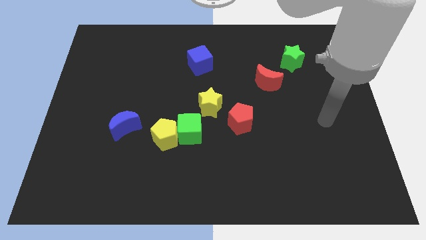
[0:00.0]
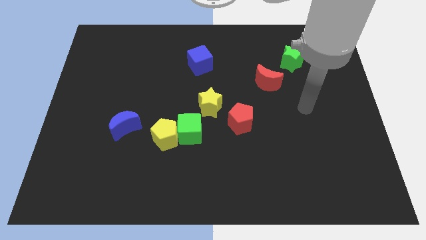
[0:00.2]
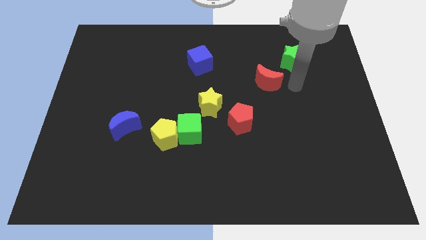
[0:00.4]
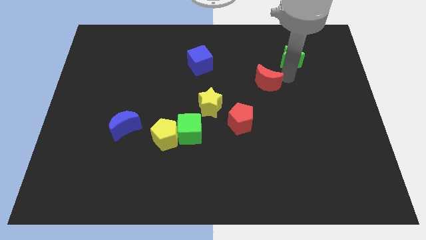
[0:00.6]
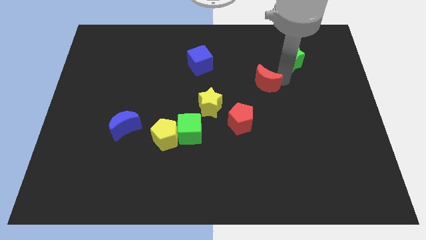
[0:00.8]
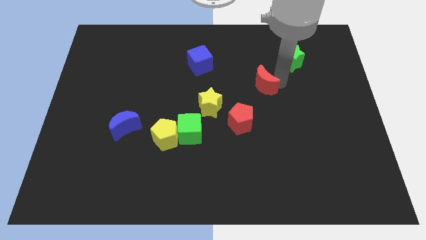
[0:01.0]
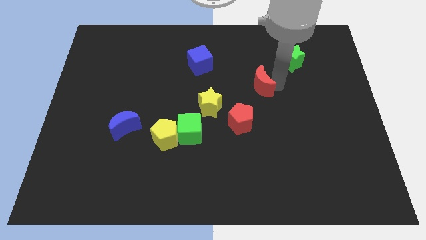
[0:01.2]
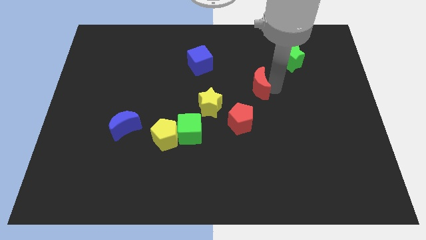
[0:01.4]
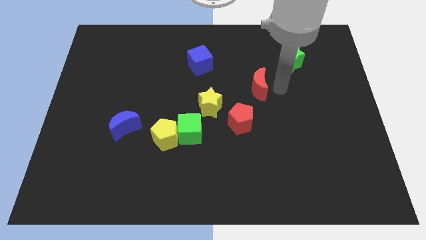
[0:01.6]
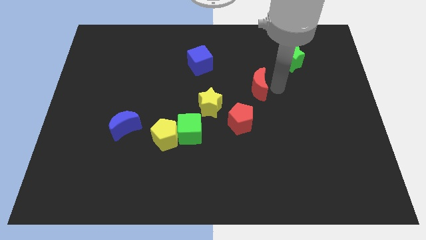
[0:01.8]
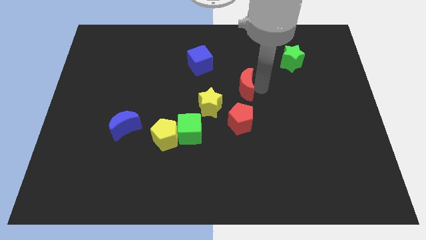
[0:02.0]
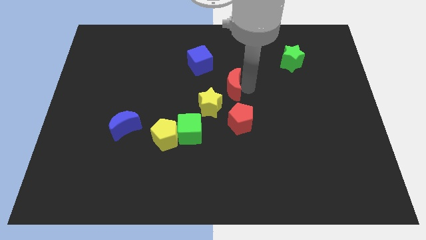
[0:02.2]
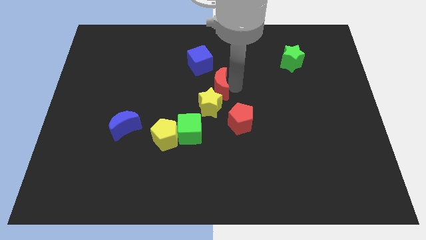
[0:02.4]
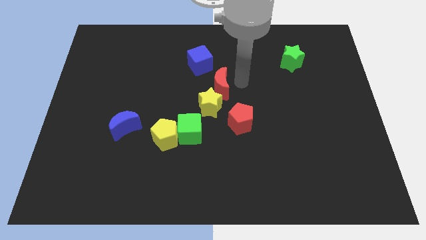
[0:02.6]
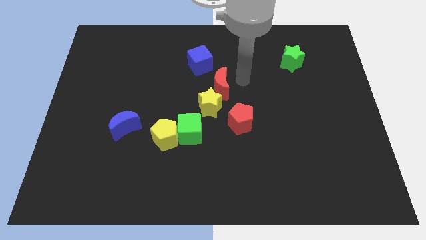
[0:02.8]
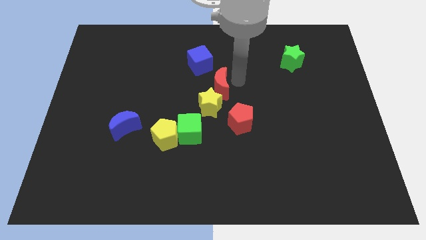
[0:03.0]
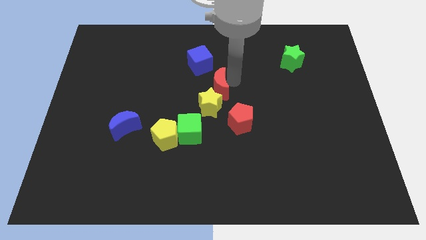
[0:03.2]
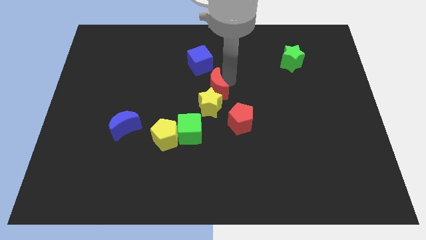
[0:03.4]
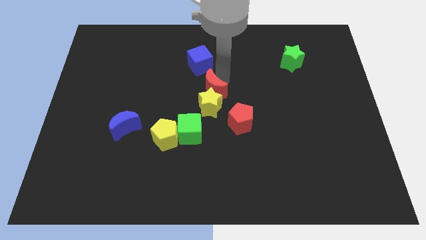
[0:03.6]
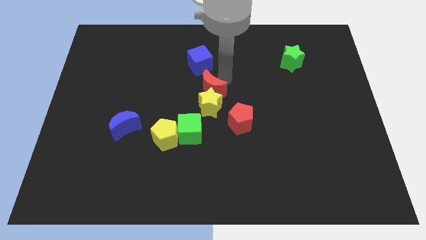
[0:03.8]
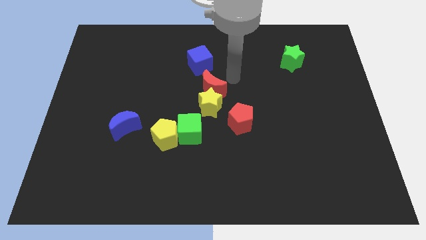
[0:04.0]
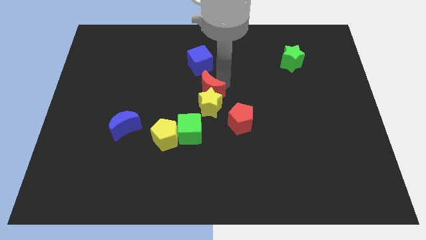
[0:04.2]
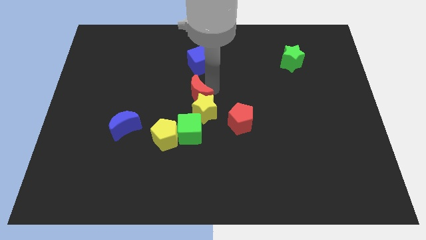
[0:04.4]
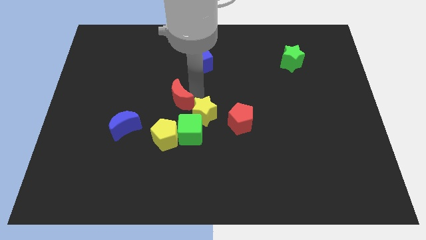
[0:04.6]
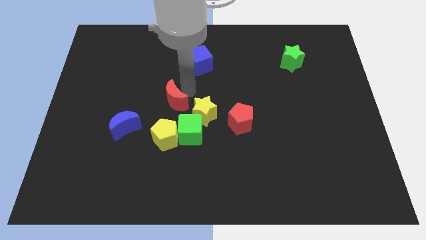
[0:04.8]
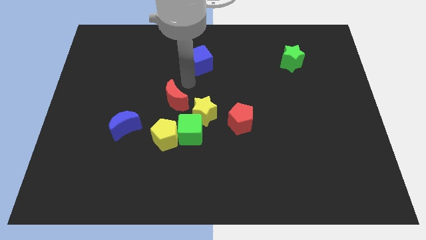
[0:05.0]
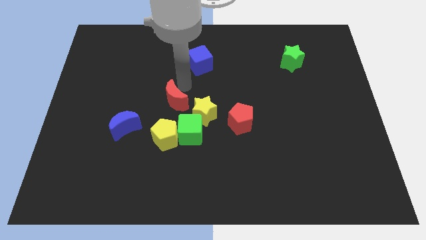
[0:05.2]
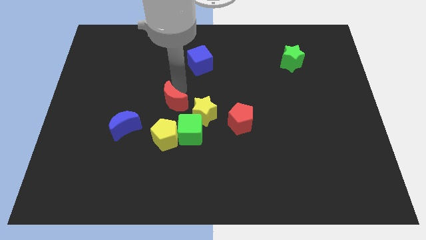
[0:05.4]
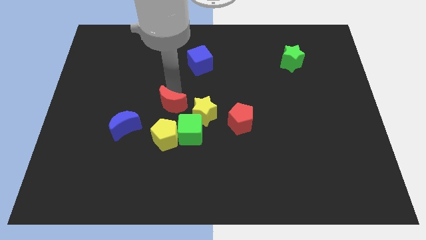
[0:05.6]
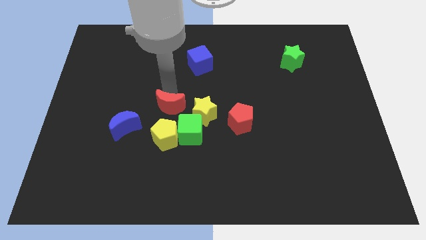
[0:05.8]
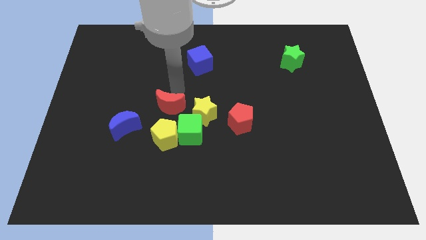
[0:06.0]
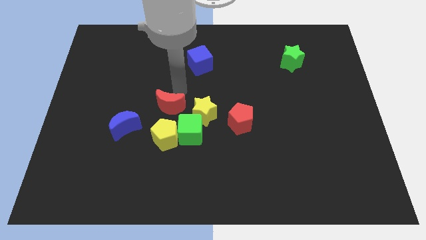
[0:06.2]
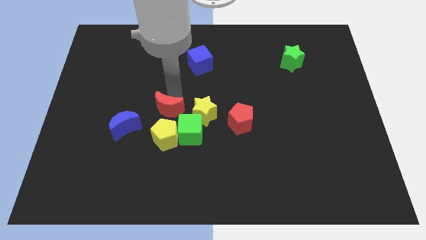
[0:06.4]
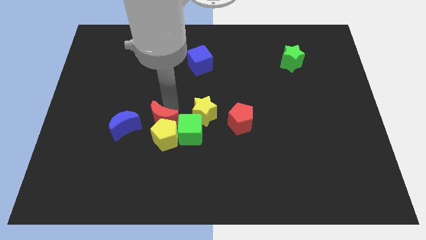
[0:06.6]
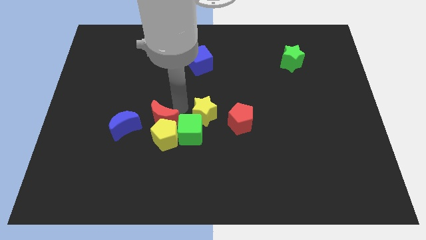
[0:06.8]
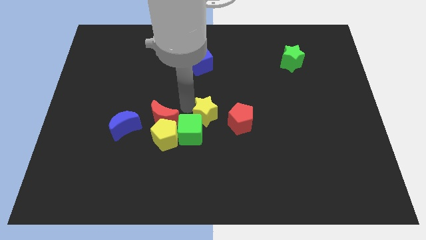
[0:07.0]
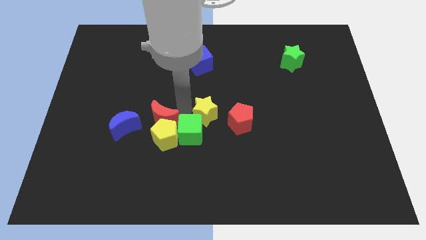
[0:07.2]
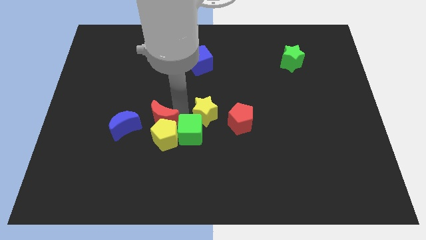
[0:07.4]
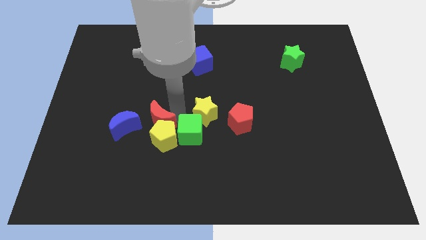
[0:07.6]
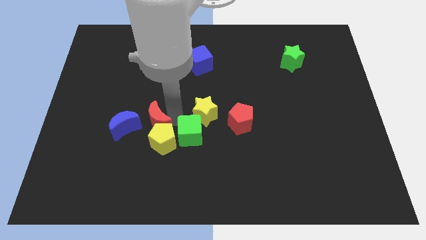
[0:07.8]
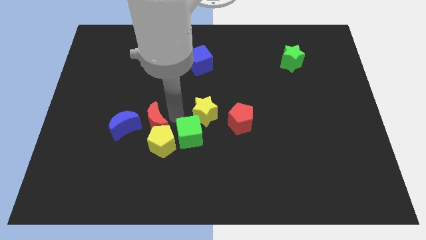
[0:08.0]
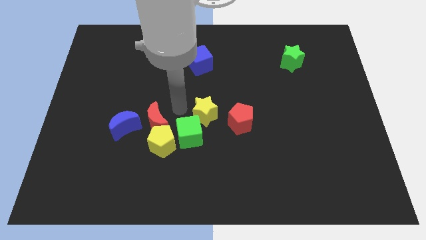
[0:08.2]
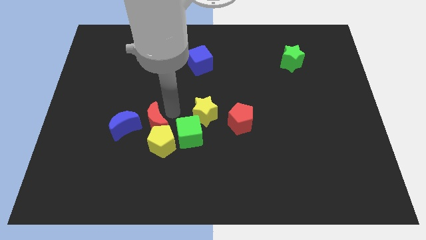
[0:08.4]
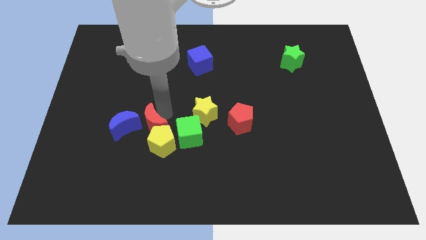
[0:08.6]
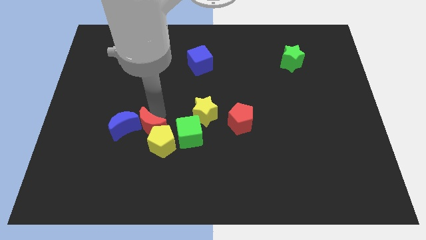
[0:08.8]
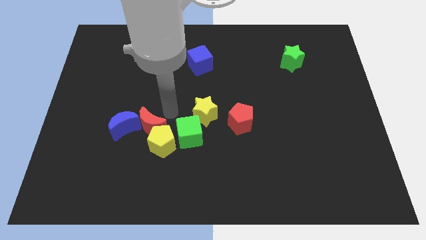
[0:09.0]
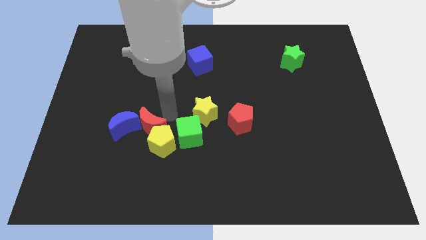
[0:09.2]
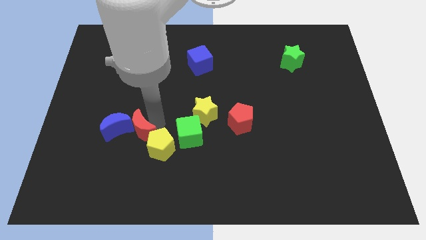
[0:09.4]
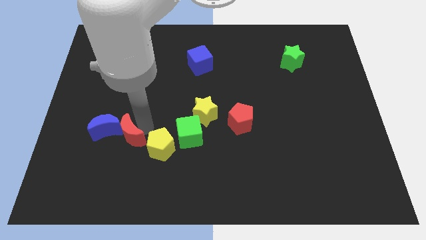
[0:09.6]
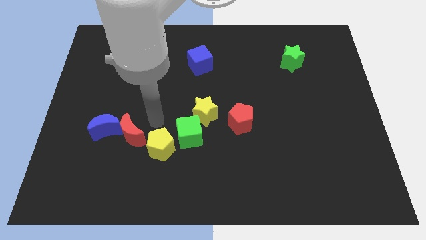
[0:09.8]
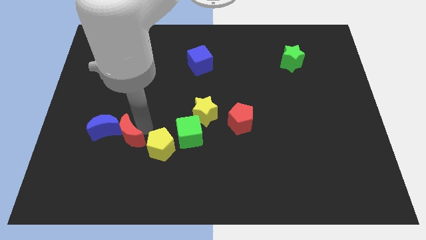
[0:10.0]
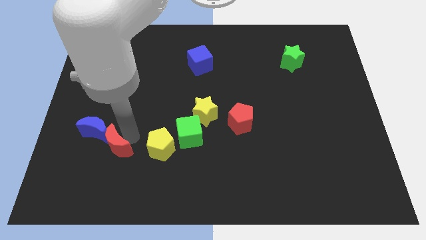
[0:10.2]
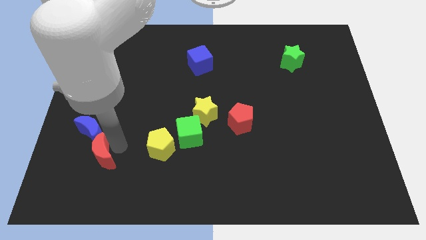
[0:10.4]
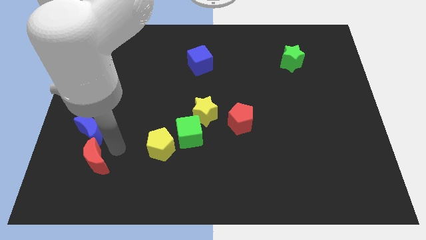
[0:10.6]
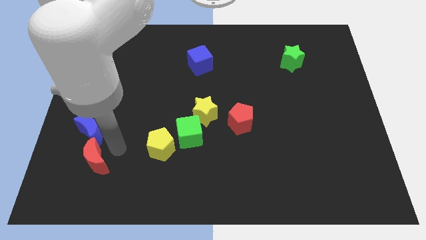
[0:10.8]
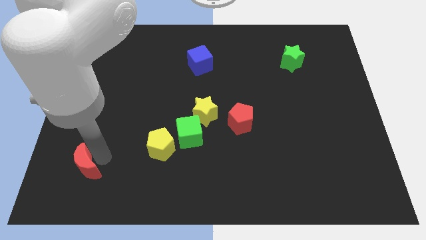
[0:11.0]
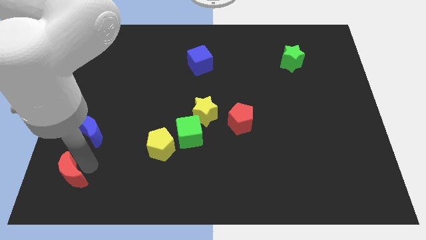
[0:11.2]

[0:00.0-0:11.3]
move the red moon to the bottom left corner

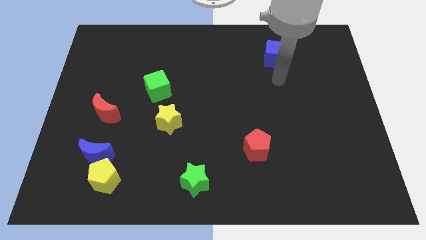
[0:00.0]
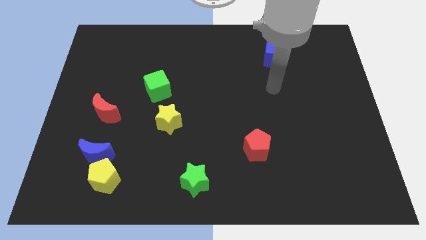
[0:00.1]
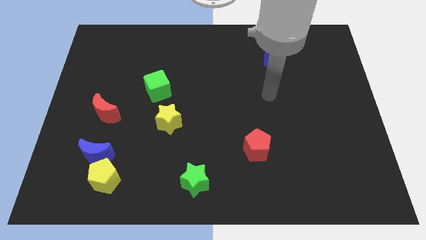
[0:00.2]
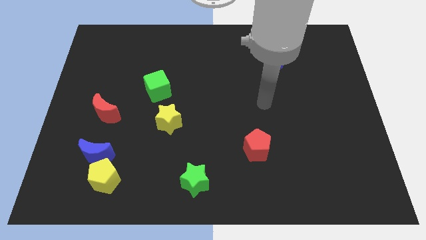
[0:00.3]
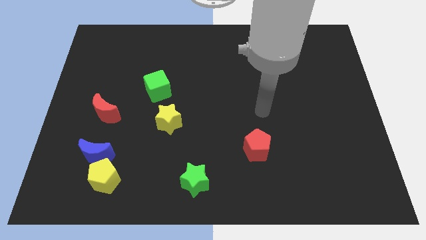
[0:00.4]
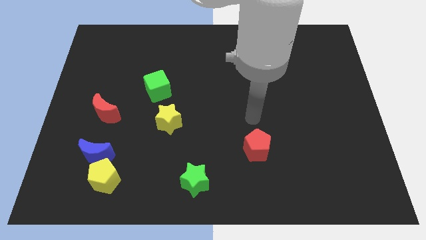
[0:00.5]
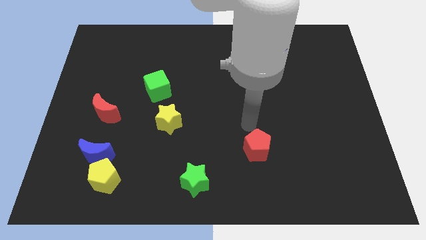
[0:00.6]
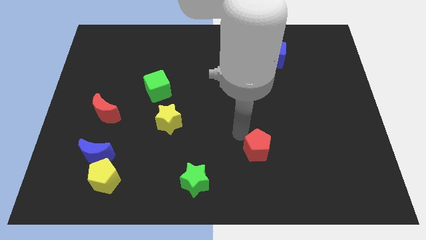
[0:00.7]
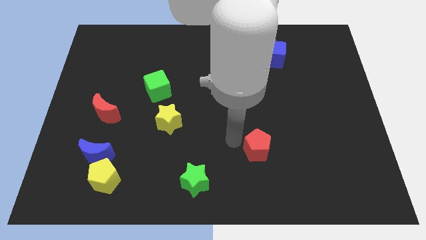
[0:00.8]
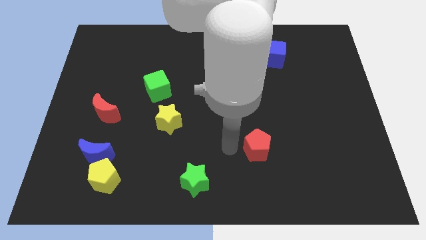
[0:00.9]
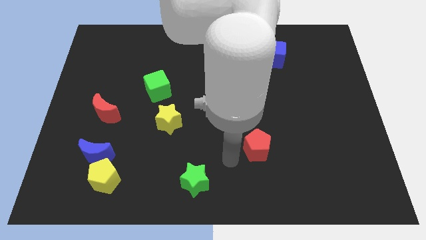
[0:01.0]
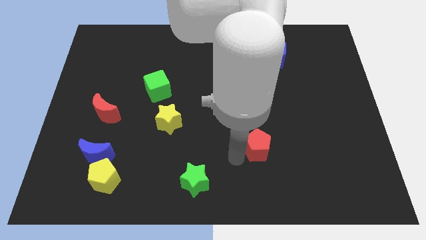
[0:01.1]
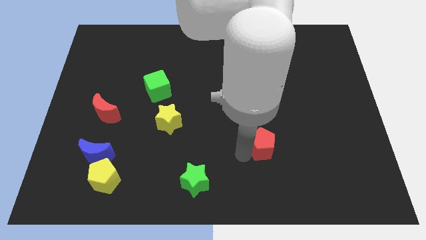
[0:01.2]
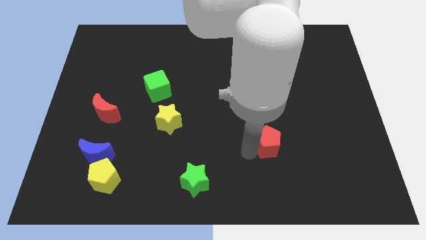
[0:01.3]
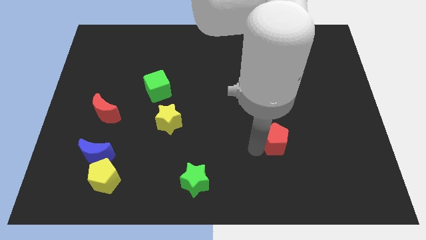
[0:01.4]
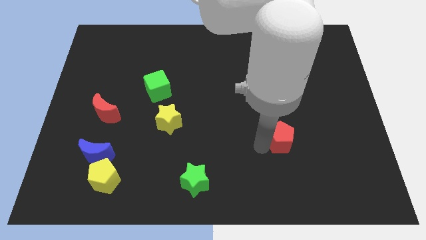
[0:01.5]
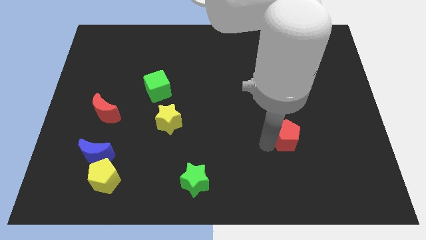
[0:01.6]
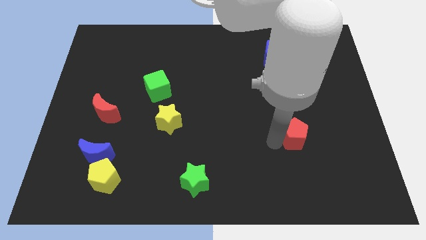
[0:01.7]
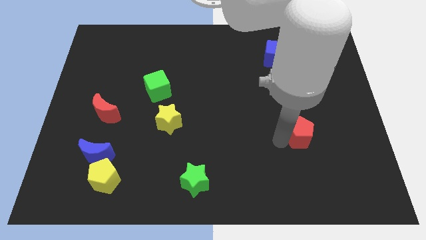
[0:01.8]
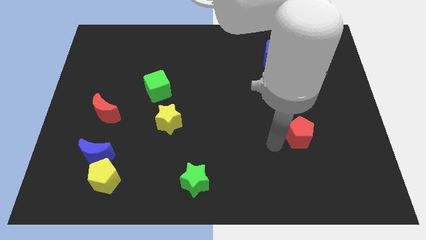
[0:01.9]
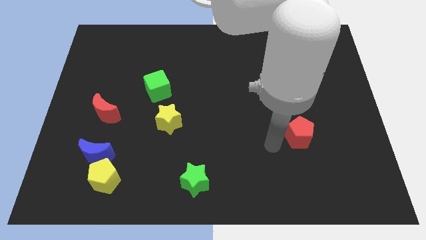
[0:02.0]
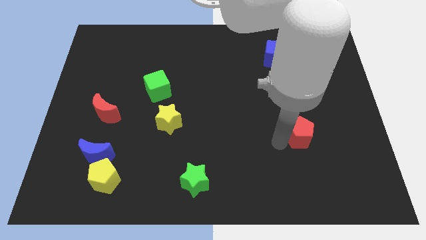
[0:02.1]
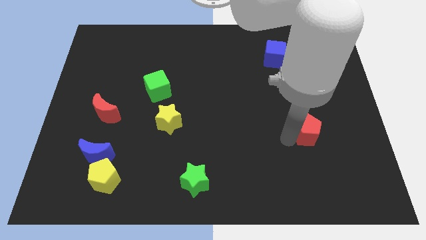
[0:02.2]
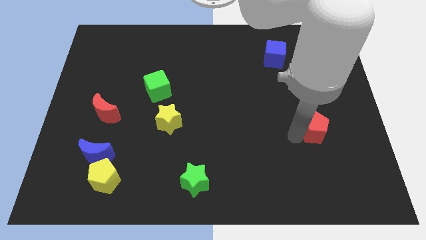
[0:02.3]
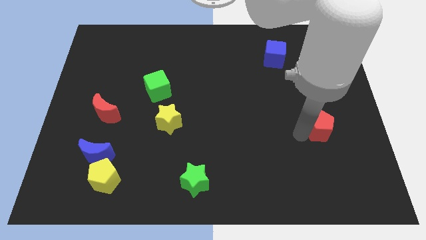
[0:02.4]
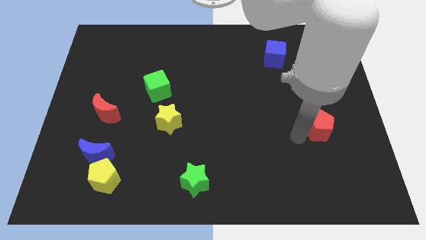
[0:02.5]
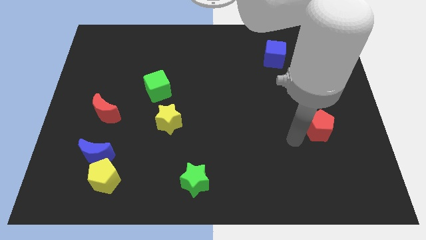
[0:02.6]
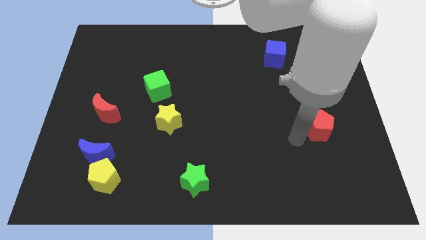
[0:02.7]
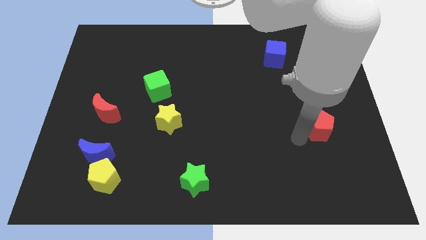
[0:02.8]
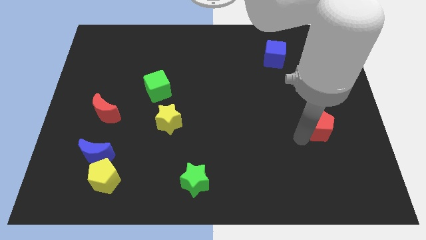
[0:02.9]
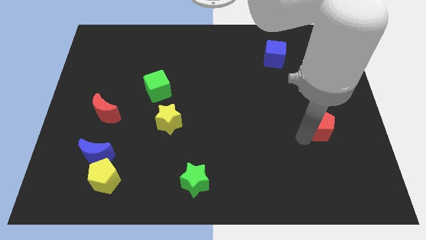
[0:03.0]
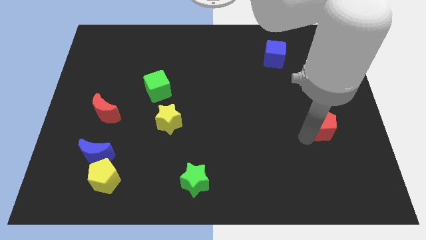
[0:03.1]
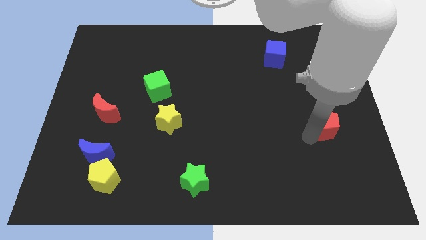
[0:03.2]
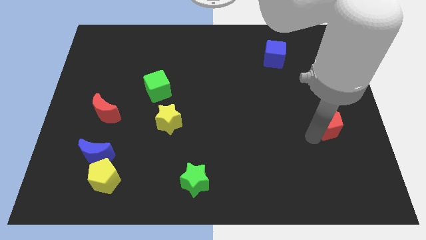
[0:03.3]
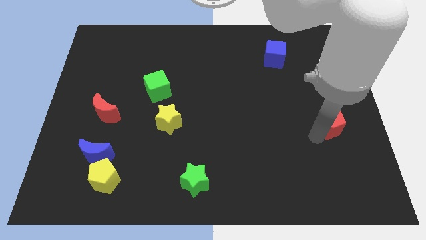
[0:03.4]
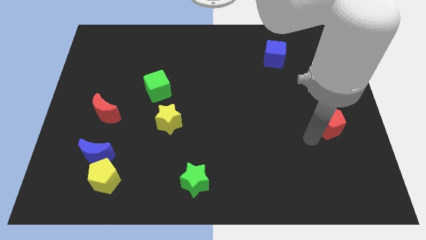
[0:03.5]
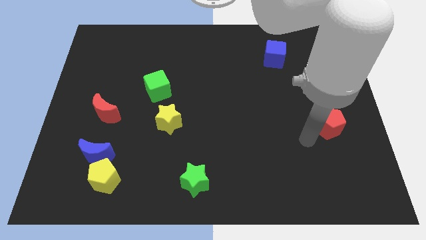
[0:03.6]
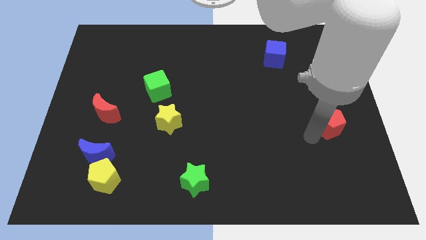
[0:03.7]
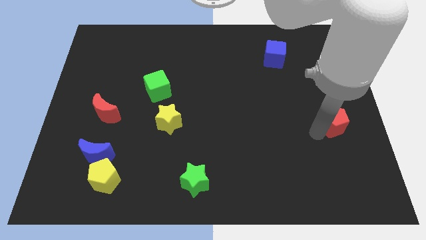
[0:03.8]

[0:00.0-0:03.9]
push the red pentagon to the right side of the board
